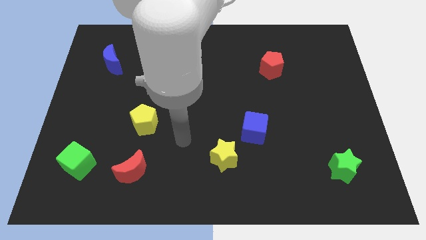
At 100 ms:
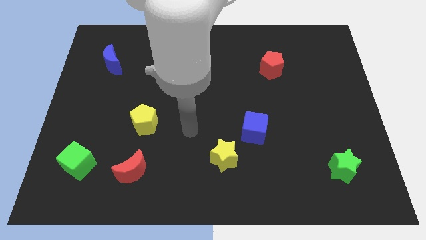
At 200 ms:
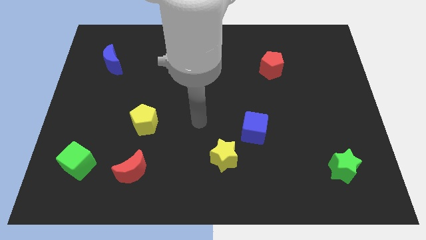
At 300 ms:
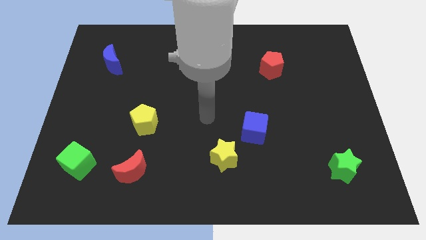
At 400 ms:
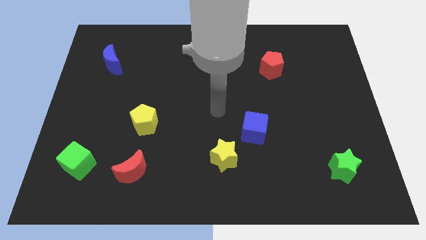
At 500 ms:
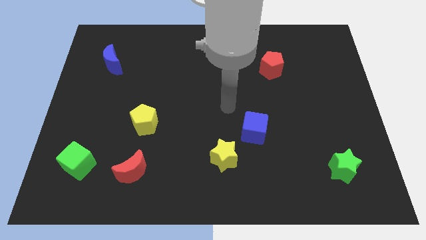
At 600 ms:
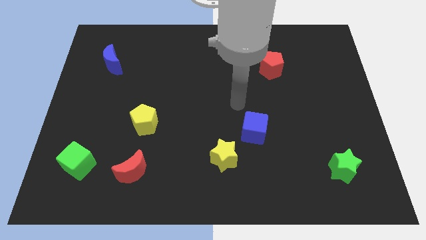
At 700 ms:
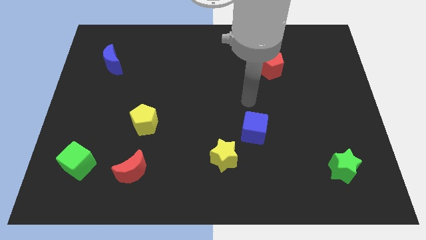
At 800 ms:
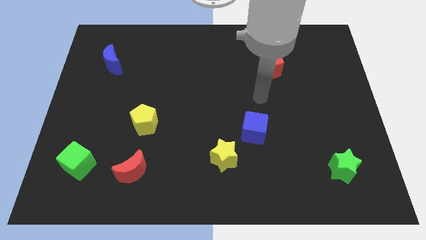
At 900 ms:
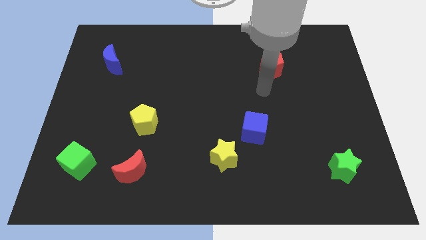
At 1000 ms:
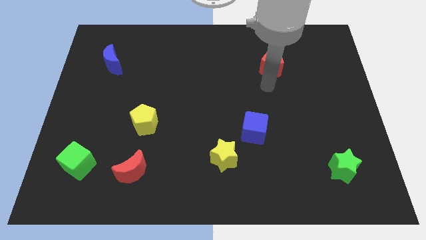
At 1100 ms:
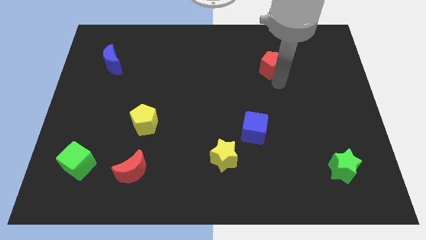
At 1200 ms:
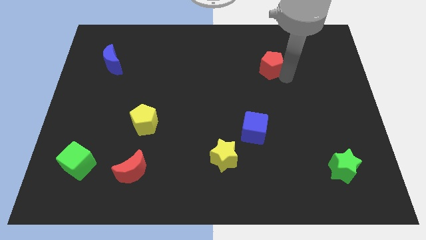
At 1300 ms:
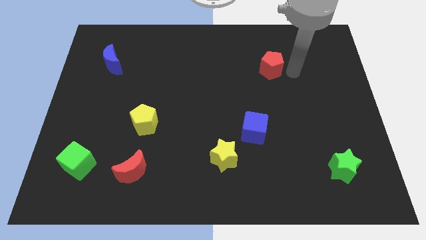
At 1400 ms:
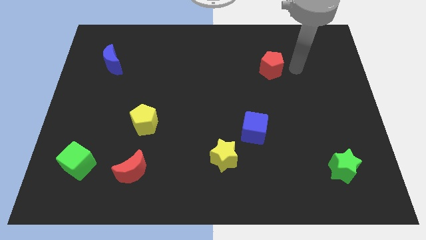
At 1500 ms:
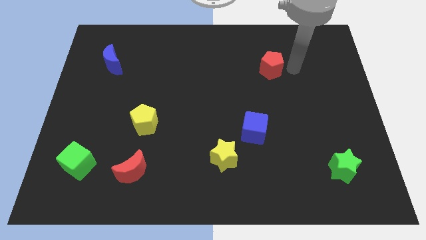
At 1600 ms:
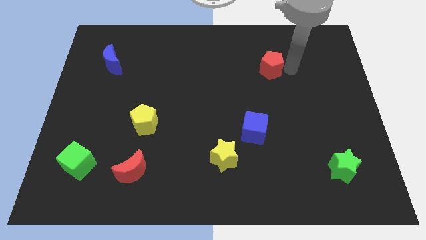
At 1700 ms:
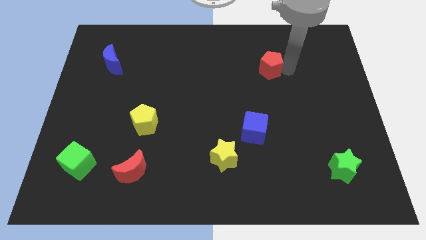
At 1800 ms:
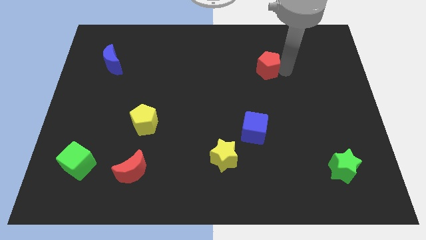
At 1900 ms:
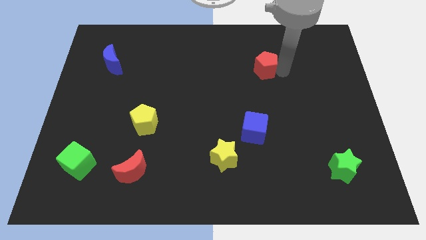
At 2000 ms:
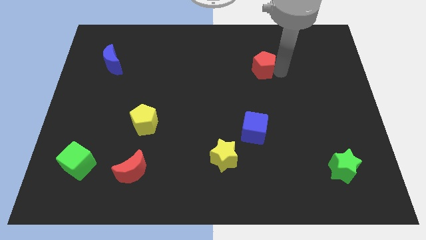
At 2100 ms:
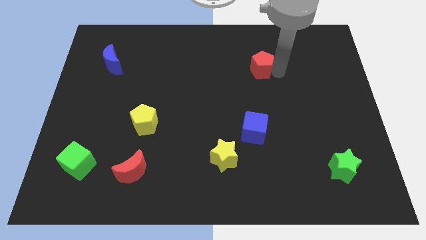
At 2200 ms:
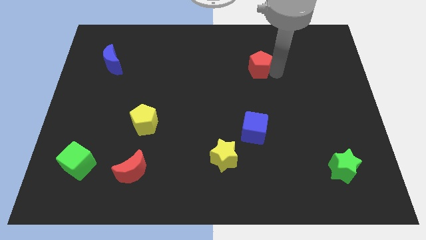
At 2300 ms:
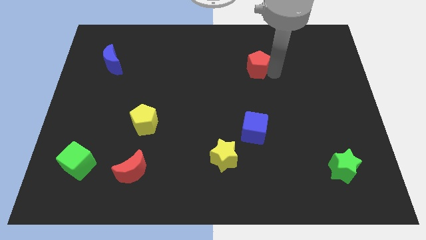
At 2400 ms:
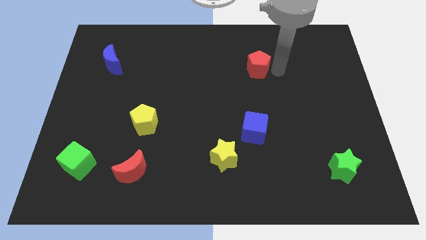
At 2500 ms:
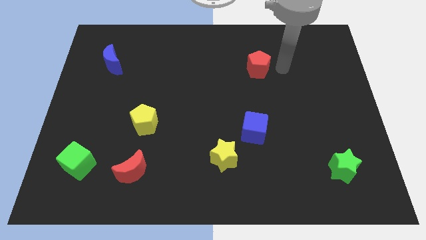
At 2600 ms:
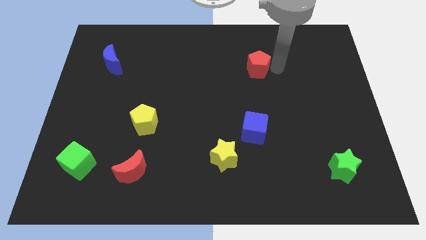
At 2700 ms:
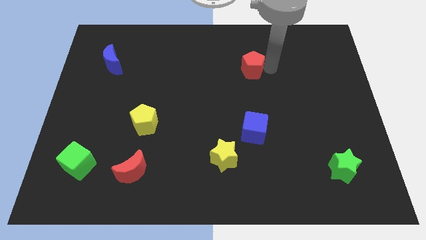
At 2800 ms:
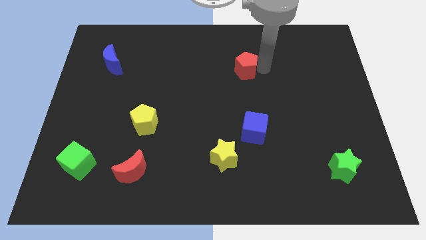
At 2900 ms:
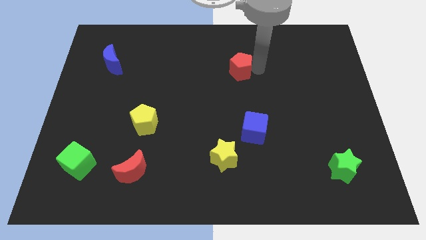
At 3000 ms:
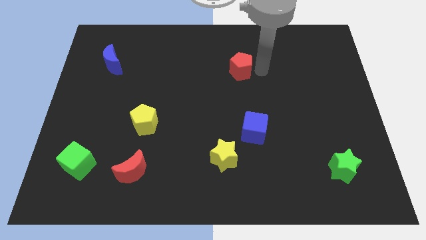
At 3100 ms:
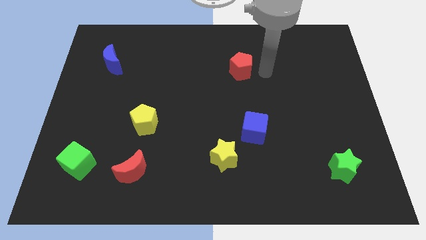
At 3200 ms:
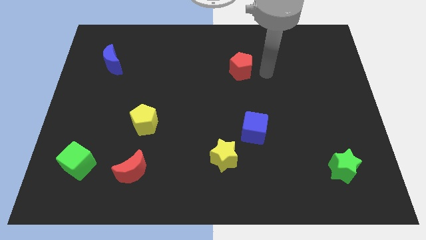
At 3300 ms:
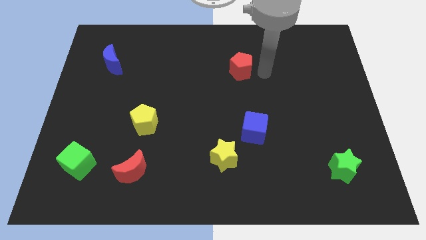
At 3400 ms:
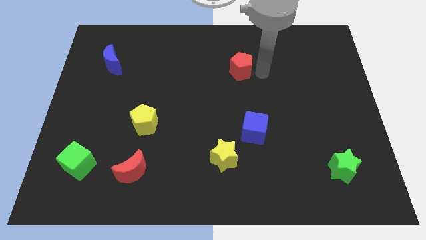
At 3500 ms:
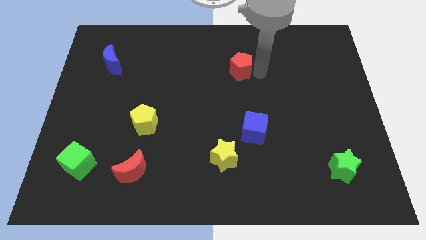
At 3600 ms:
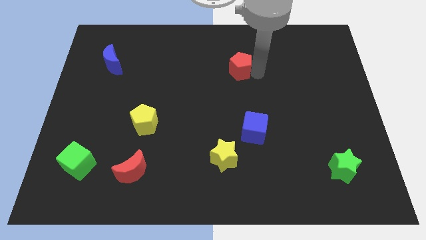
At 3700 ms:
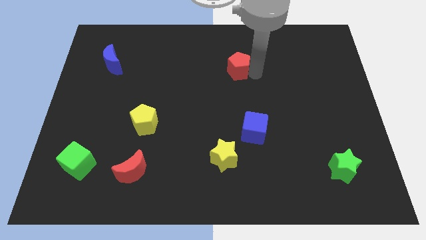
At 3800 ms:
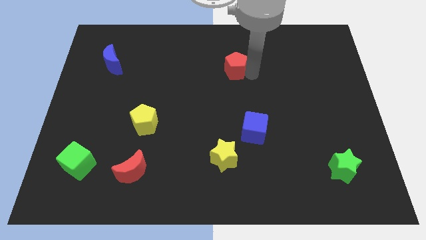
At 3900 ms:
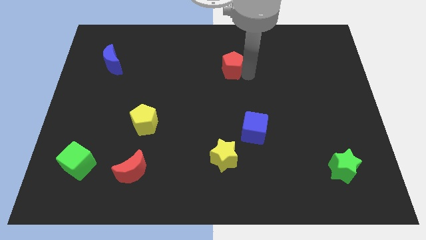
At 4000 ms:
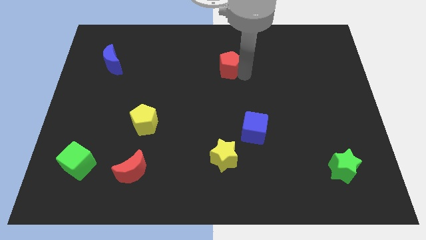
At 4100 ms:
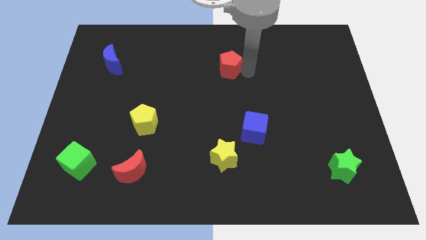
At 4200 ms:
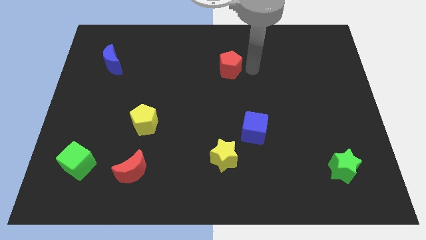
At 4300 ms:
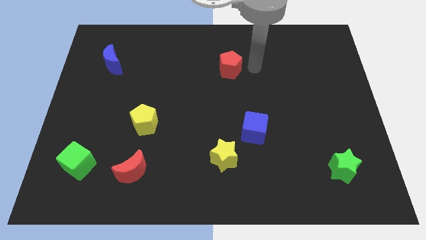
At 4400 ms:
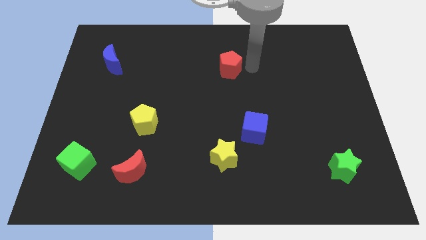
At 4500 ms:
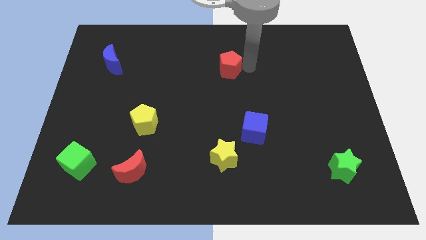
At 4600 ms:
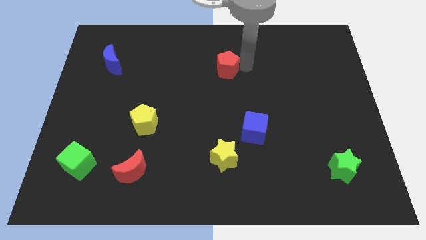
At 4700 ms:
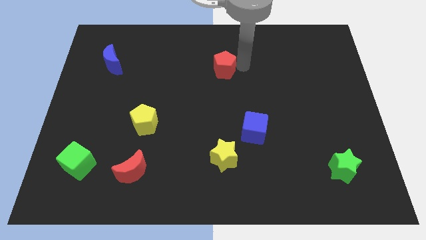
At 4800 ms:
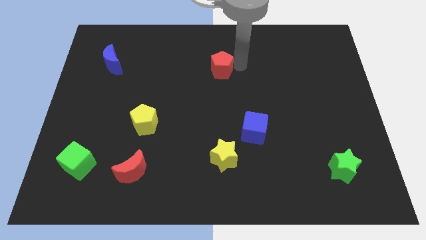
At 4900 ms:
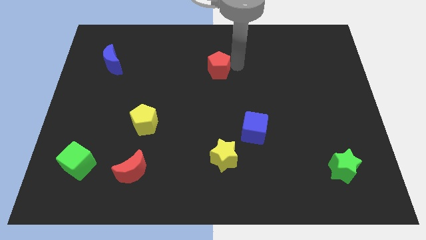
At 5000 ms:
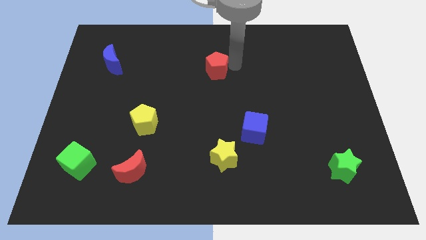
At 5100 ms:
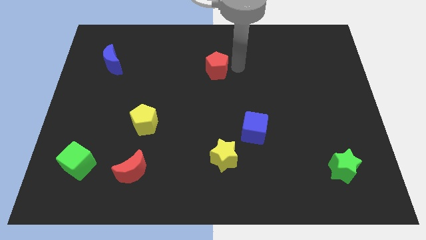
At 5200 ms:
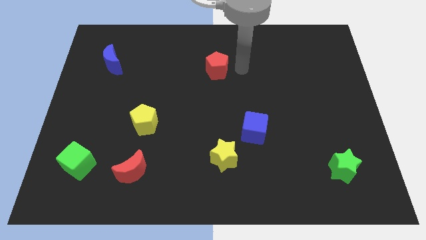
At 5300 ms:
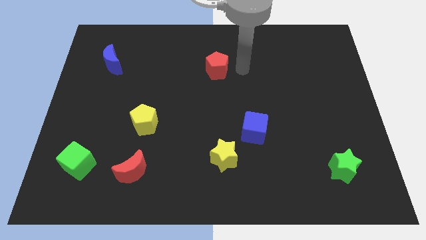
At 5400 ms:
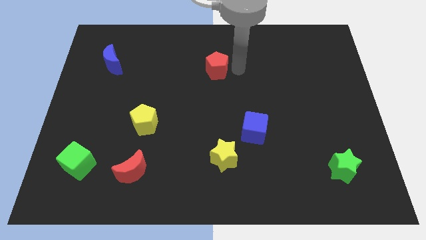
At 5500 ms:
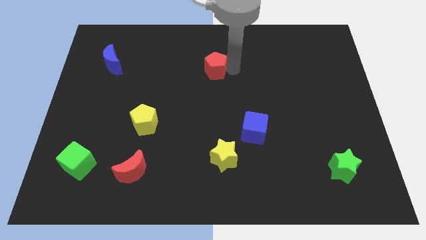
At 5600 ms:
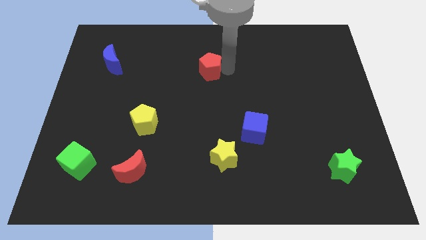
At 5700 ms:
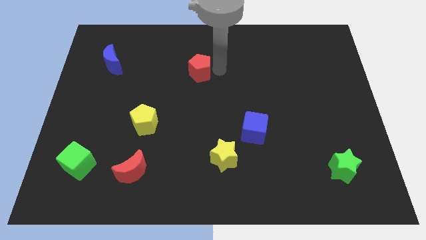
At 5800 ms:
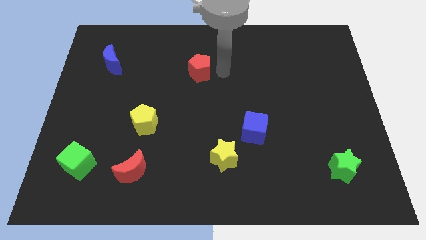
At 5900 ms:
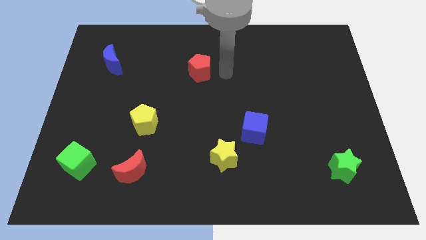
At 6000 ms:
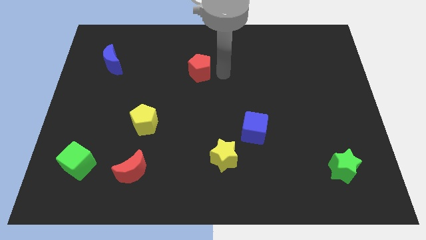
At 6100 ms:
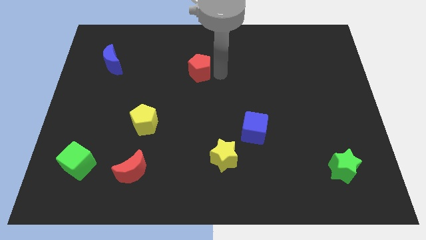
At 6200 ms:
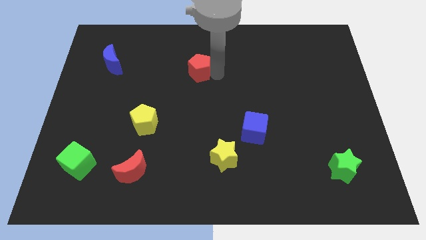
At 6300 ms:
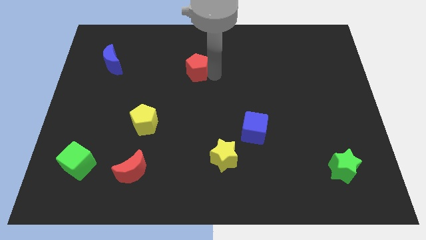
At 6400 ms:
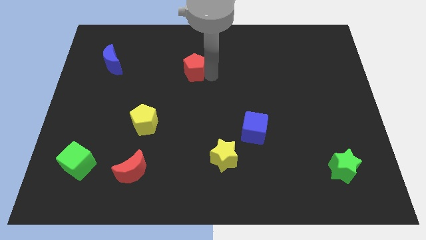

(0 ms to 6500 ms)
push the red pentagon left

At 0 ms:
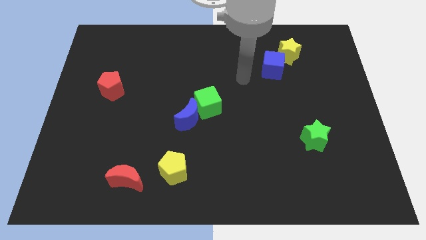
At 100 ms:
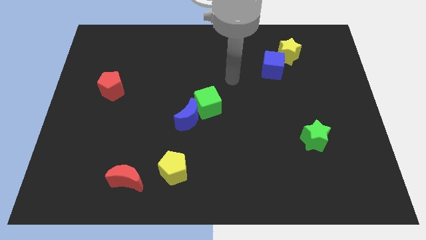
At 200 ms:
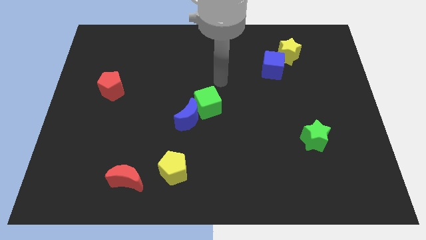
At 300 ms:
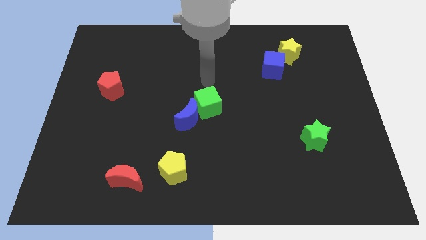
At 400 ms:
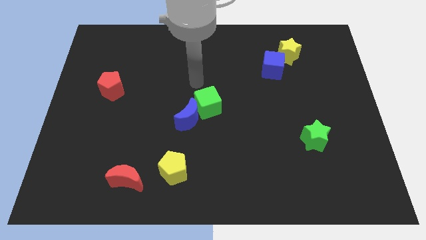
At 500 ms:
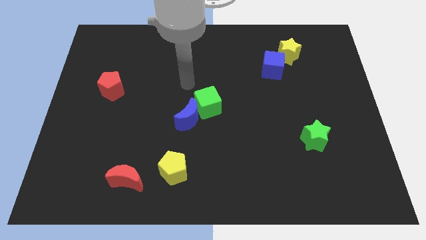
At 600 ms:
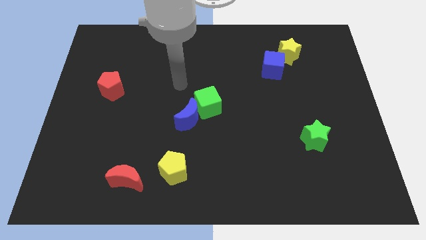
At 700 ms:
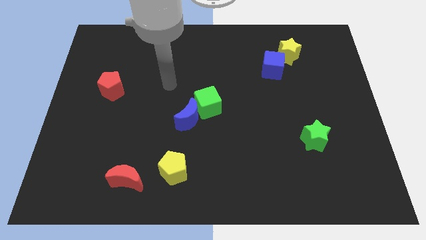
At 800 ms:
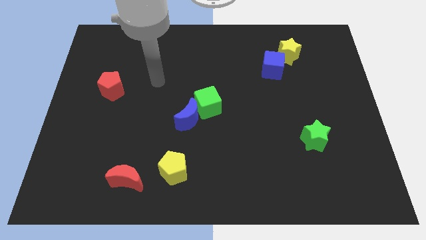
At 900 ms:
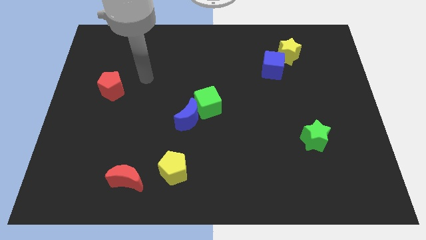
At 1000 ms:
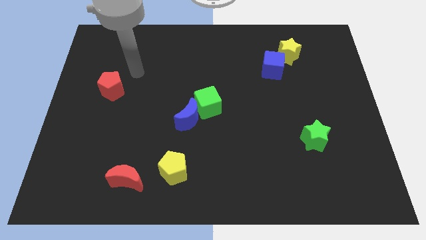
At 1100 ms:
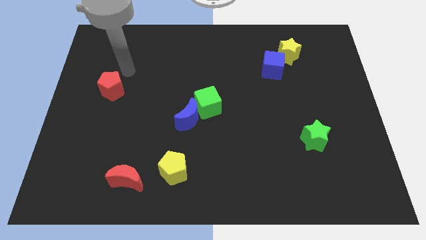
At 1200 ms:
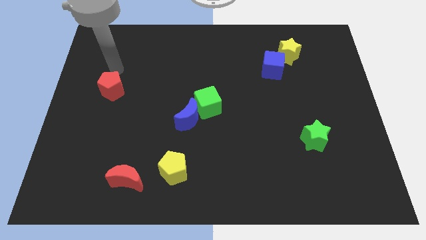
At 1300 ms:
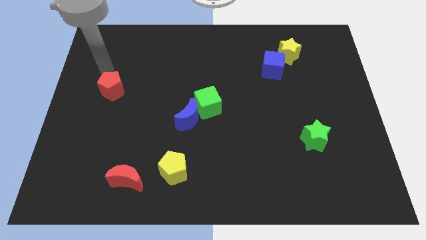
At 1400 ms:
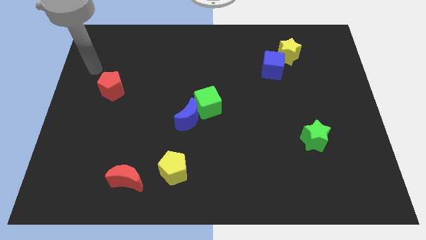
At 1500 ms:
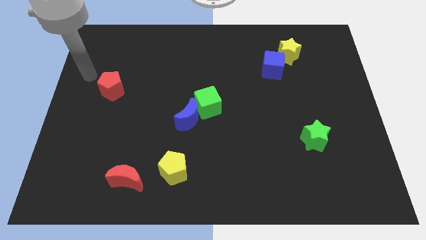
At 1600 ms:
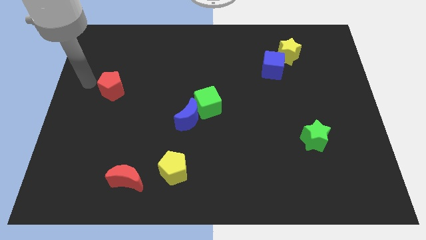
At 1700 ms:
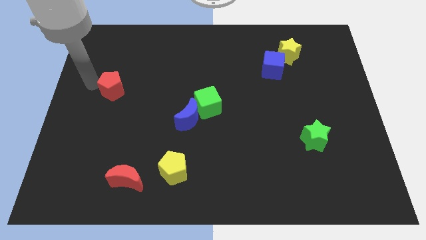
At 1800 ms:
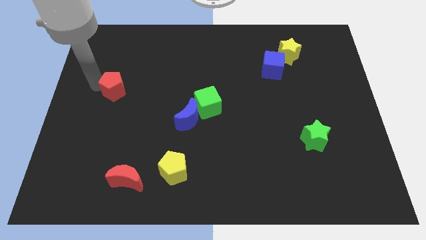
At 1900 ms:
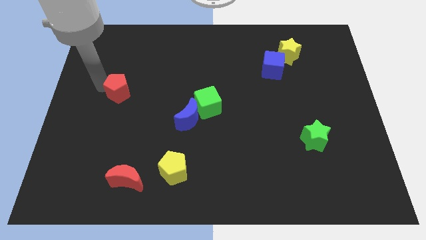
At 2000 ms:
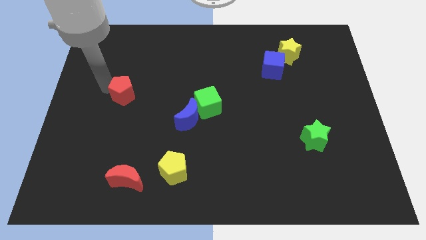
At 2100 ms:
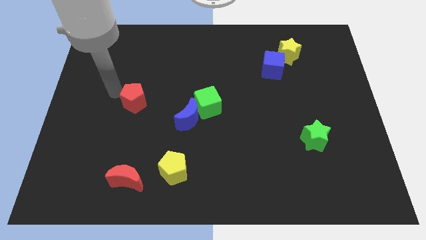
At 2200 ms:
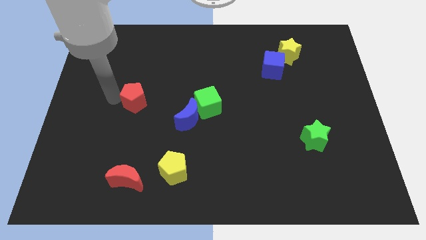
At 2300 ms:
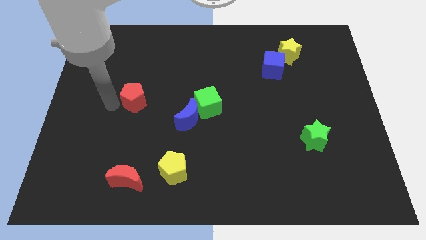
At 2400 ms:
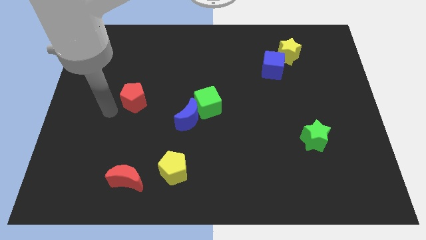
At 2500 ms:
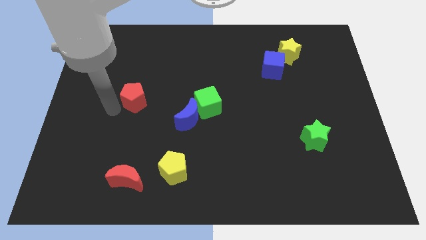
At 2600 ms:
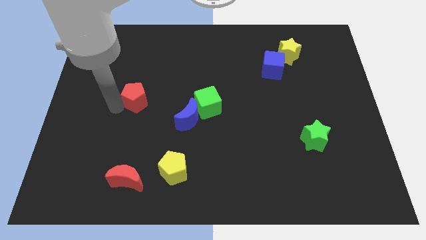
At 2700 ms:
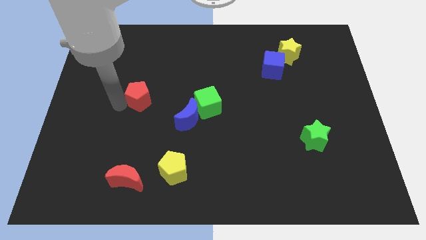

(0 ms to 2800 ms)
push the red pentagon right slightly
